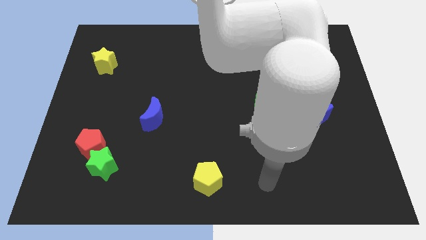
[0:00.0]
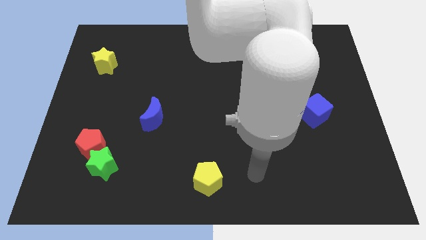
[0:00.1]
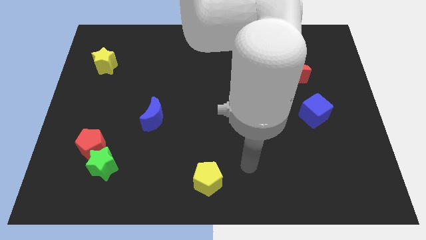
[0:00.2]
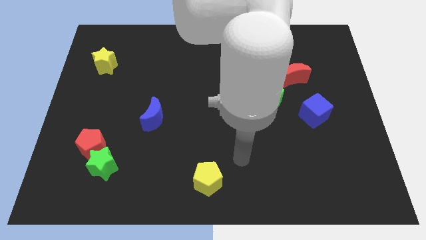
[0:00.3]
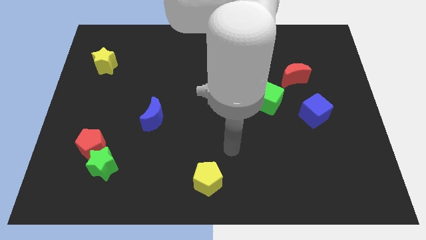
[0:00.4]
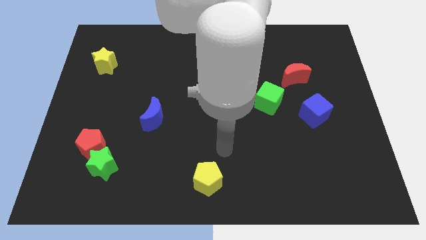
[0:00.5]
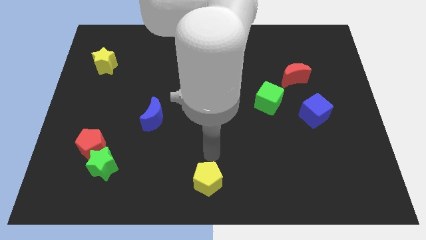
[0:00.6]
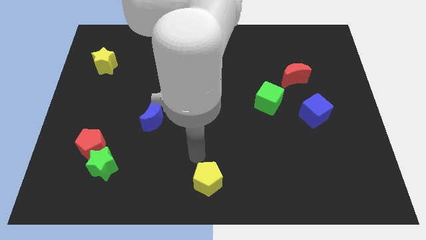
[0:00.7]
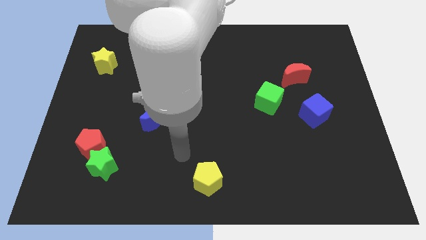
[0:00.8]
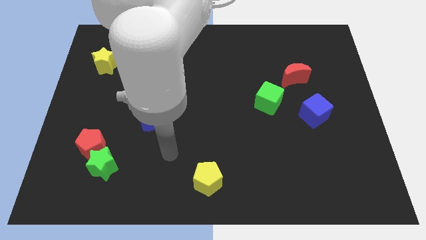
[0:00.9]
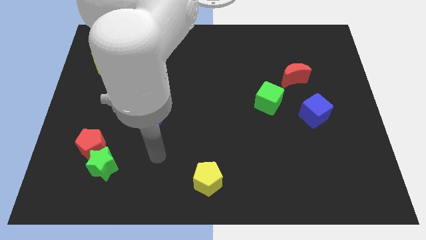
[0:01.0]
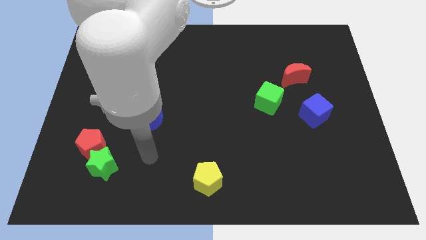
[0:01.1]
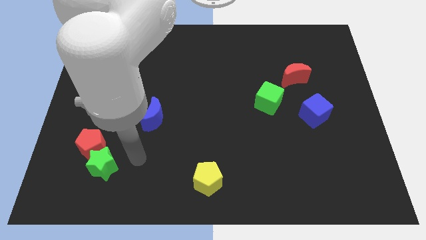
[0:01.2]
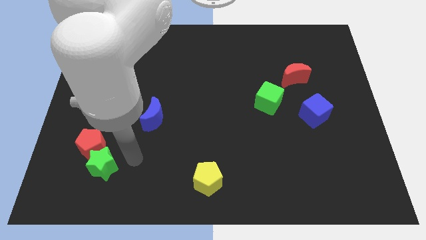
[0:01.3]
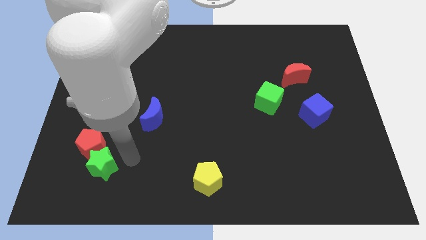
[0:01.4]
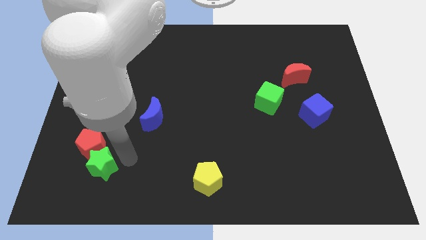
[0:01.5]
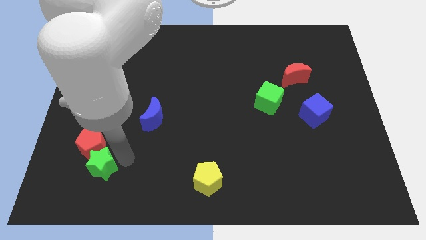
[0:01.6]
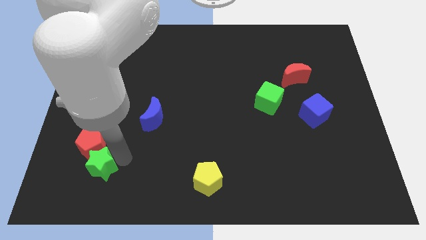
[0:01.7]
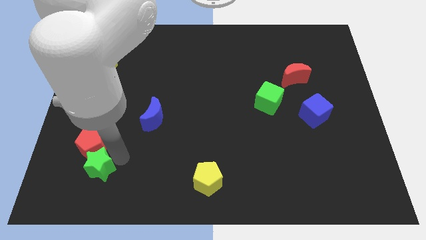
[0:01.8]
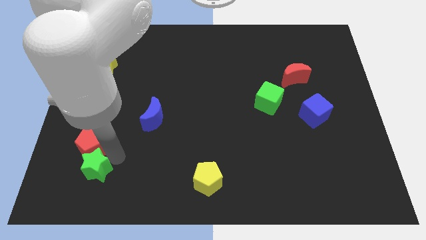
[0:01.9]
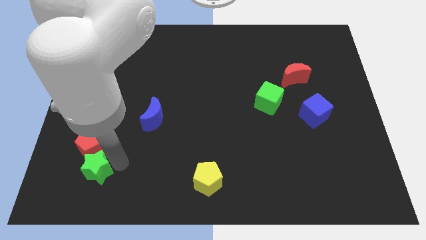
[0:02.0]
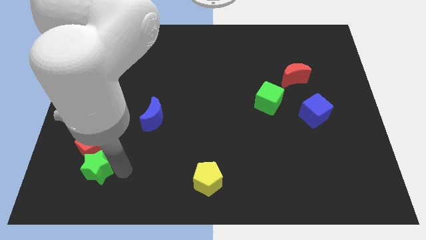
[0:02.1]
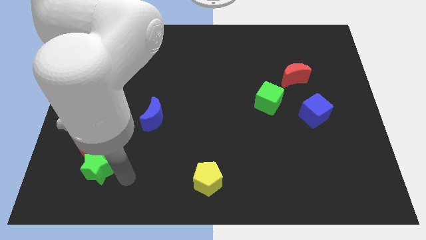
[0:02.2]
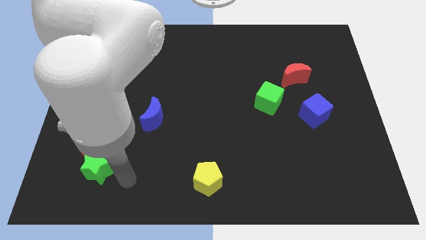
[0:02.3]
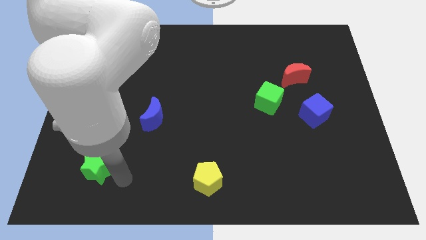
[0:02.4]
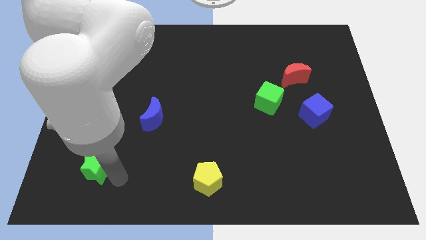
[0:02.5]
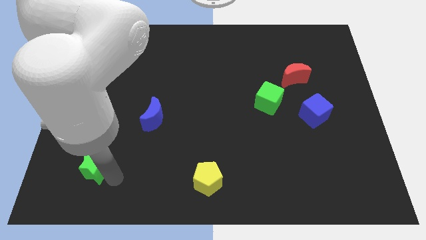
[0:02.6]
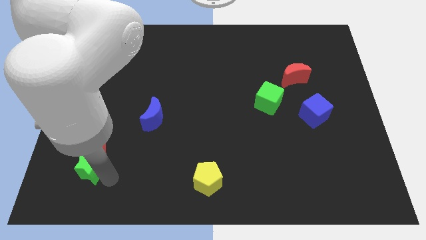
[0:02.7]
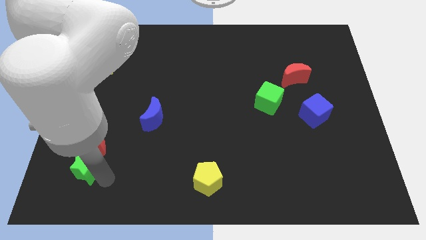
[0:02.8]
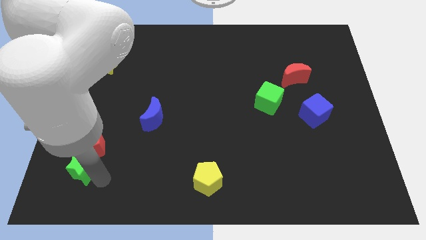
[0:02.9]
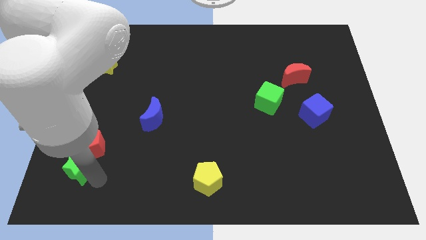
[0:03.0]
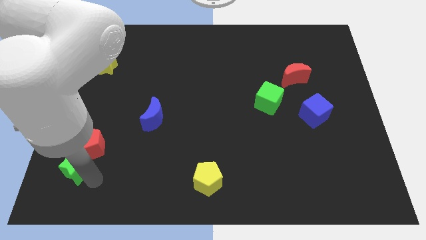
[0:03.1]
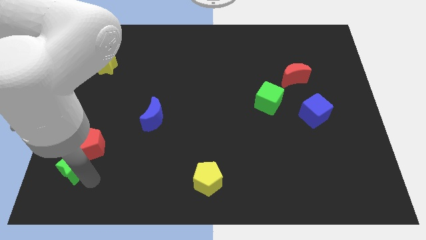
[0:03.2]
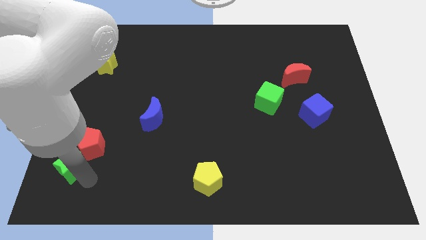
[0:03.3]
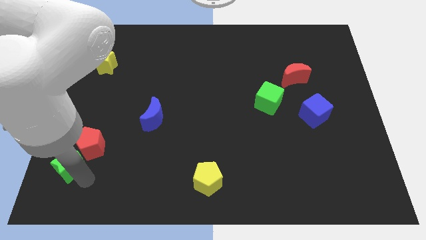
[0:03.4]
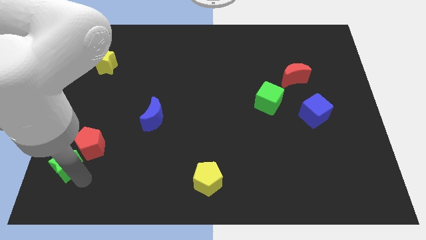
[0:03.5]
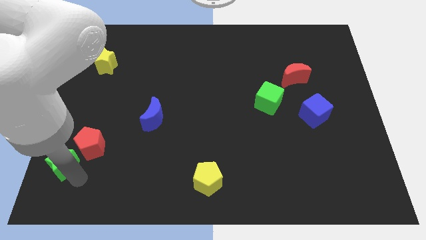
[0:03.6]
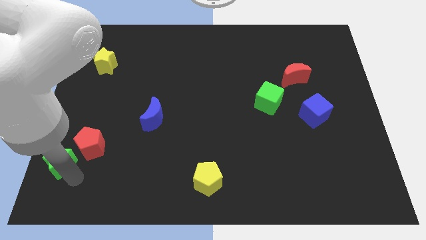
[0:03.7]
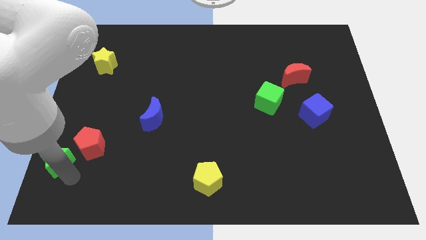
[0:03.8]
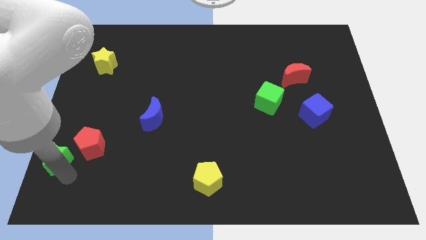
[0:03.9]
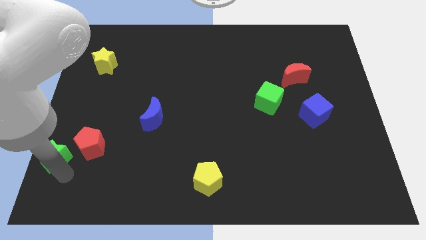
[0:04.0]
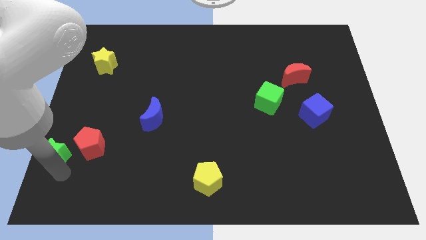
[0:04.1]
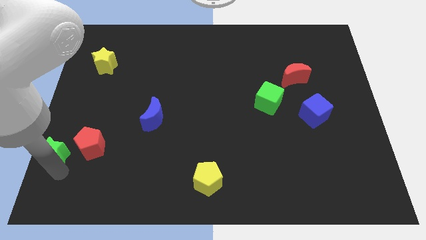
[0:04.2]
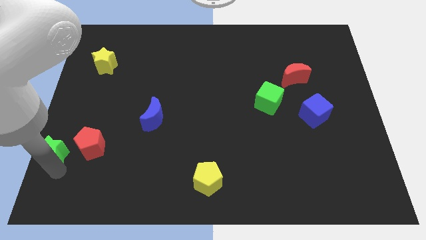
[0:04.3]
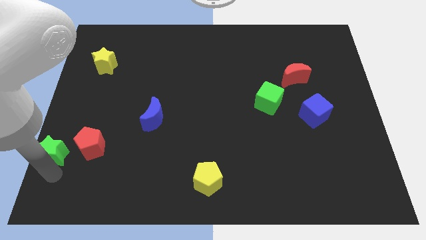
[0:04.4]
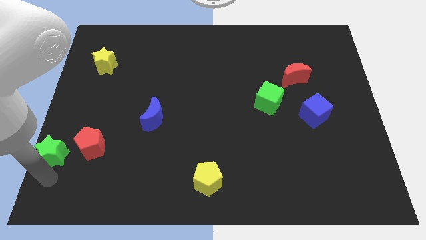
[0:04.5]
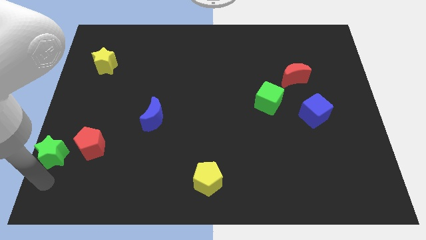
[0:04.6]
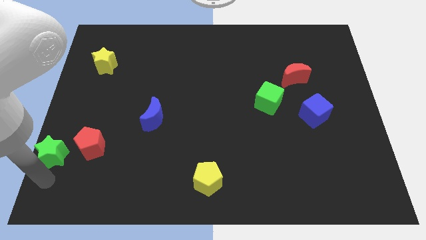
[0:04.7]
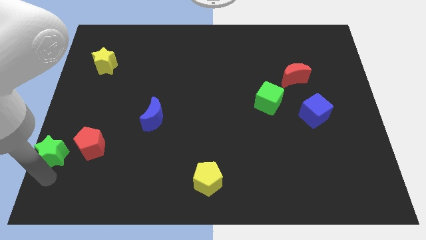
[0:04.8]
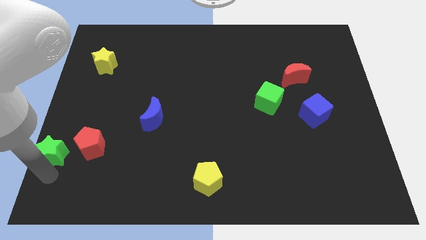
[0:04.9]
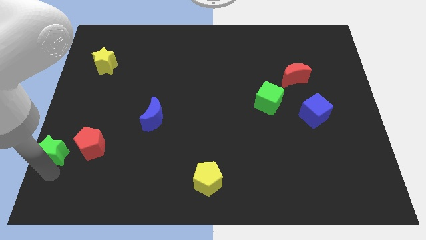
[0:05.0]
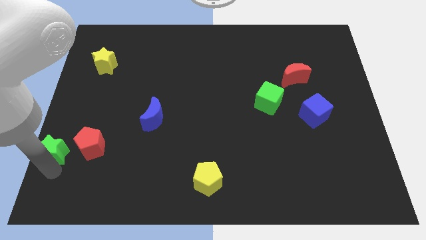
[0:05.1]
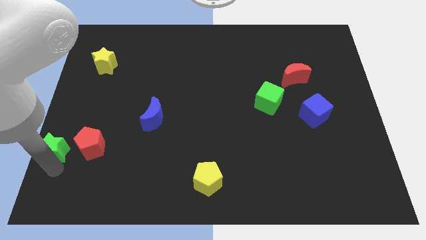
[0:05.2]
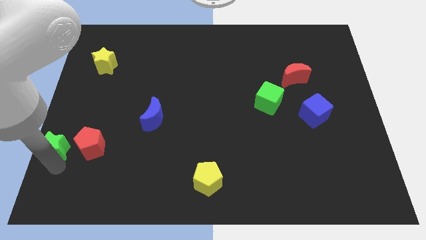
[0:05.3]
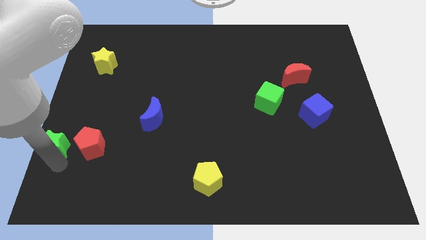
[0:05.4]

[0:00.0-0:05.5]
push the green star to the left side of the board

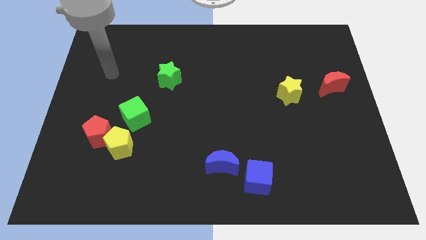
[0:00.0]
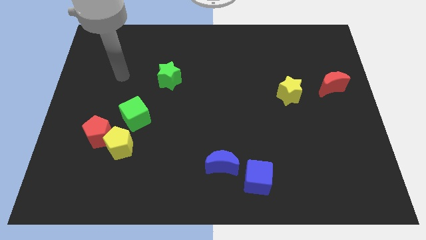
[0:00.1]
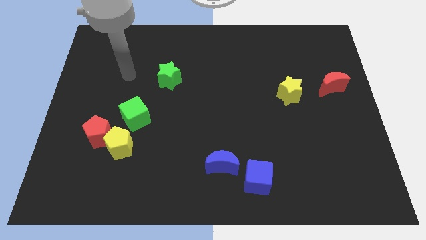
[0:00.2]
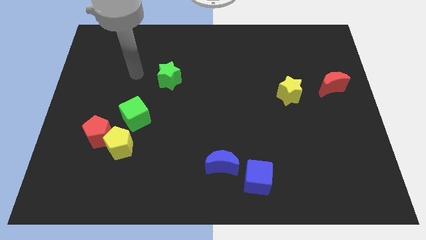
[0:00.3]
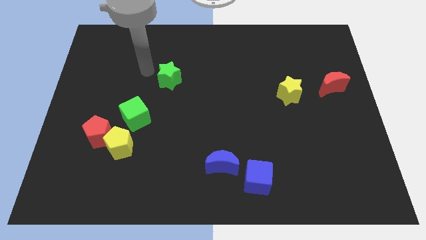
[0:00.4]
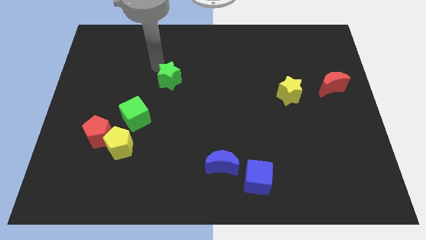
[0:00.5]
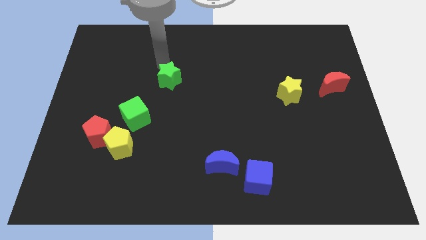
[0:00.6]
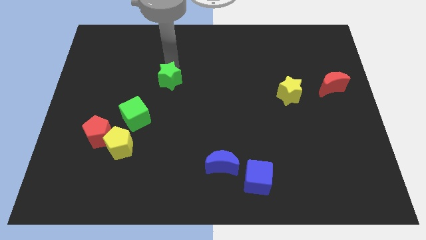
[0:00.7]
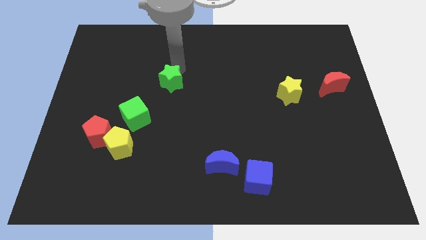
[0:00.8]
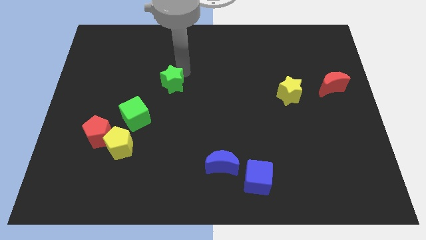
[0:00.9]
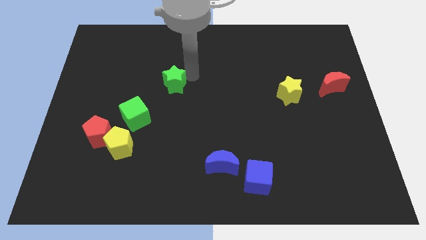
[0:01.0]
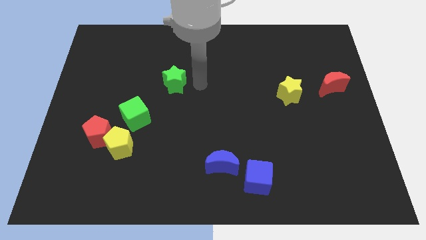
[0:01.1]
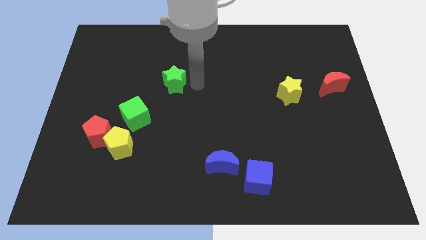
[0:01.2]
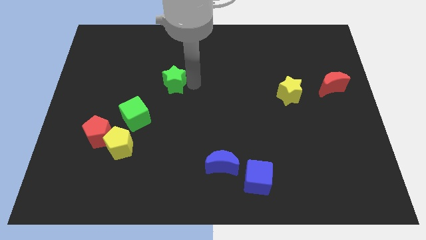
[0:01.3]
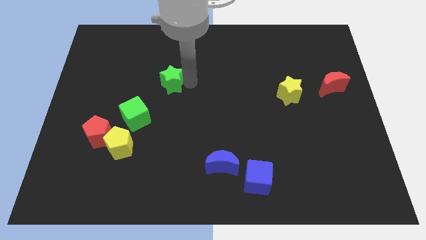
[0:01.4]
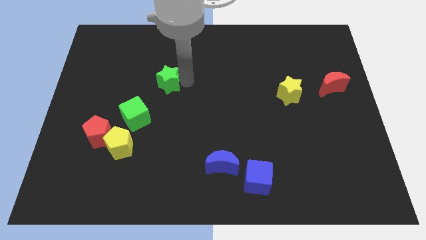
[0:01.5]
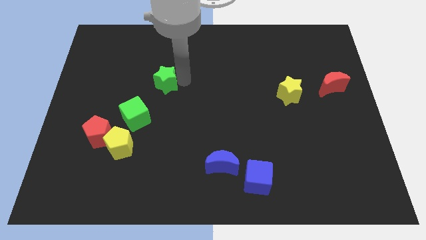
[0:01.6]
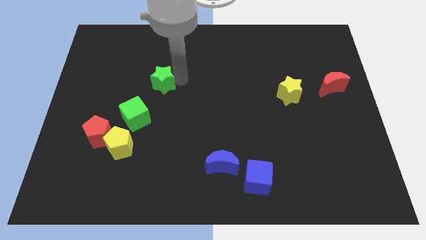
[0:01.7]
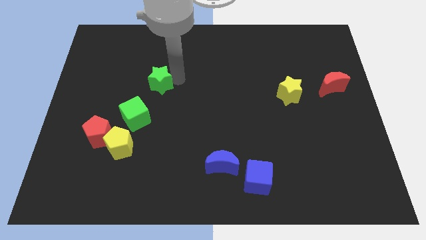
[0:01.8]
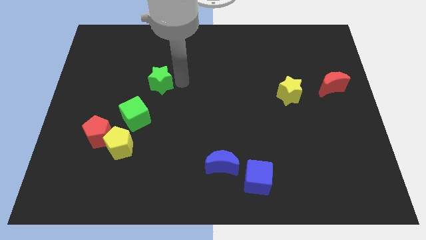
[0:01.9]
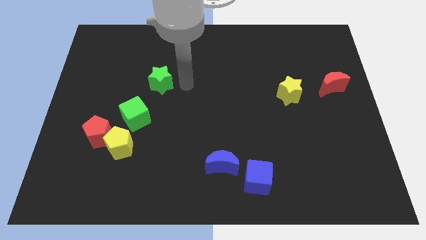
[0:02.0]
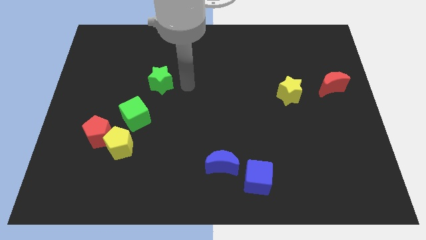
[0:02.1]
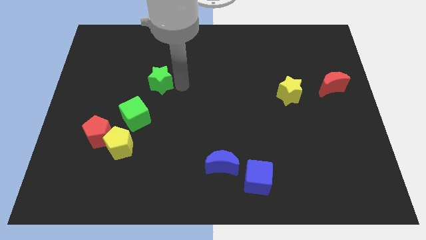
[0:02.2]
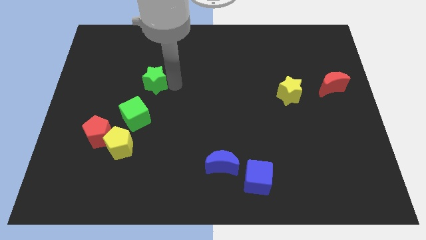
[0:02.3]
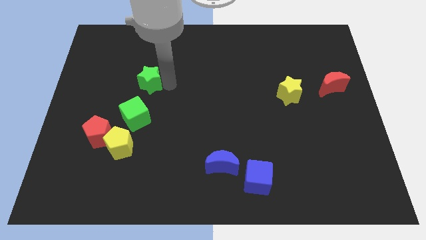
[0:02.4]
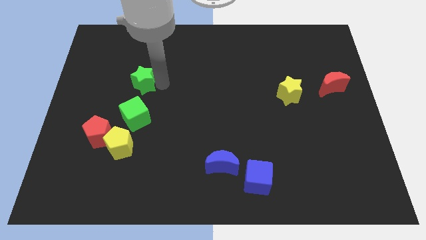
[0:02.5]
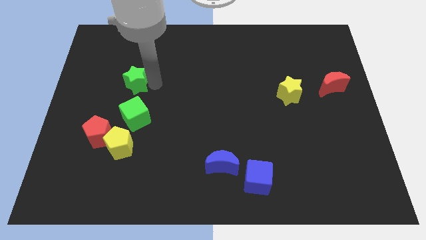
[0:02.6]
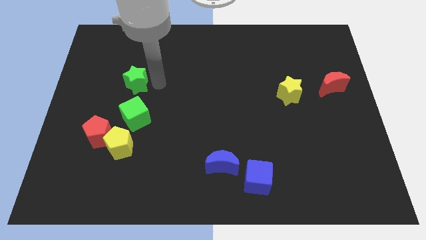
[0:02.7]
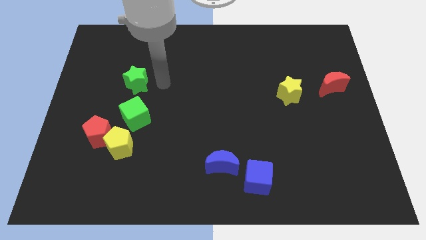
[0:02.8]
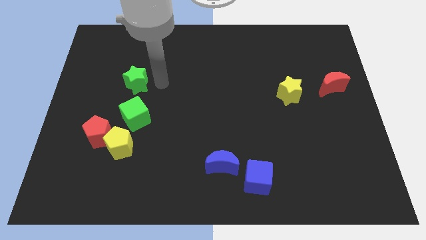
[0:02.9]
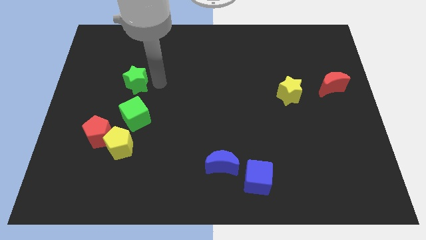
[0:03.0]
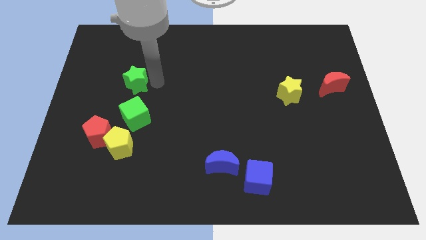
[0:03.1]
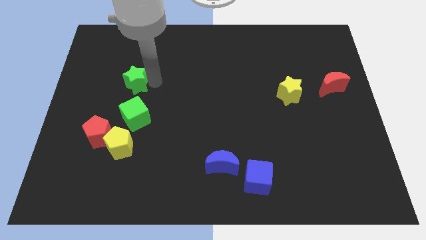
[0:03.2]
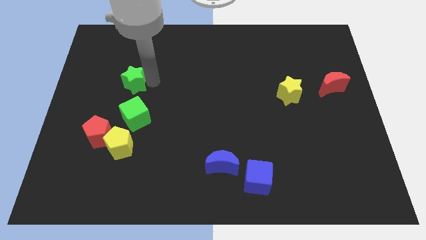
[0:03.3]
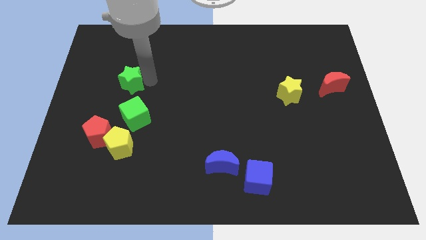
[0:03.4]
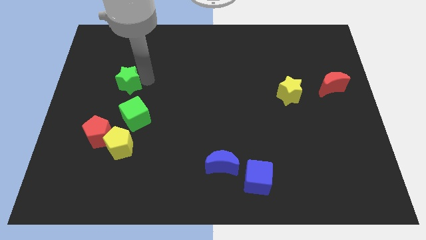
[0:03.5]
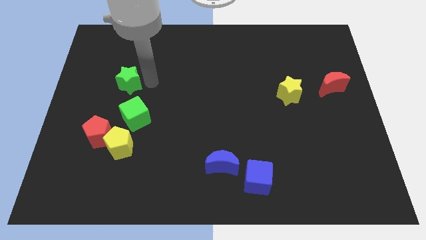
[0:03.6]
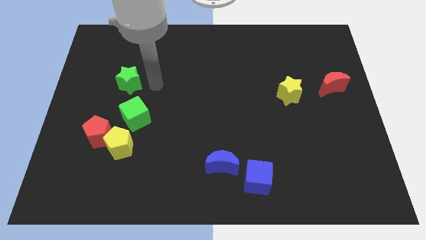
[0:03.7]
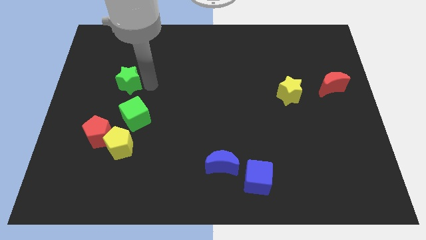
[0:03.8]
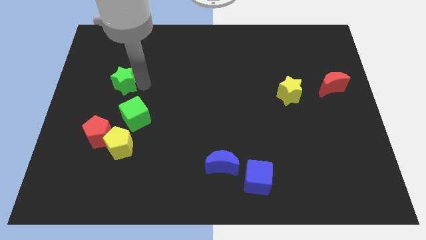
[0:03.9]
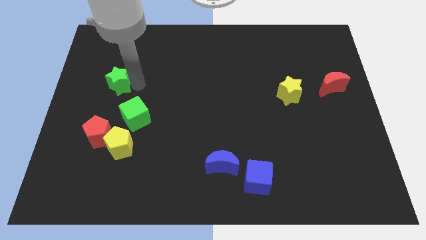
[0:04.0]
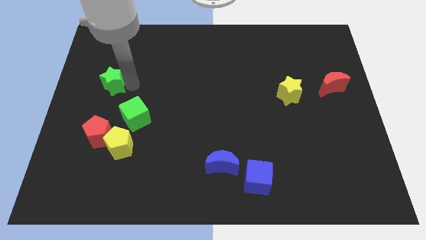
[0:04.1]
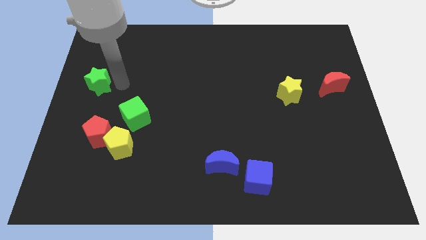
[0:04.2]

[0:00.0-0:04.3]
push the green star to the center left
